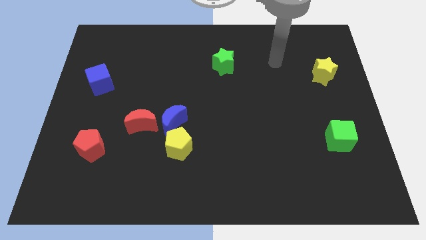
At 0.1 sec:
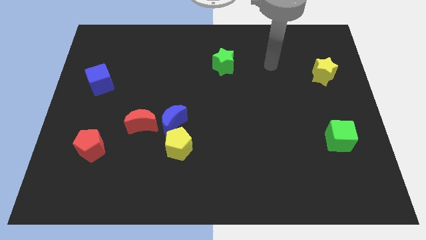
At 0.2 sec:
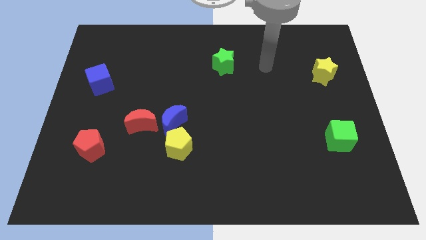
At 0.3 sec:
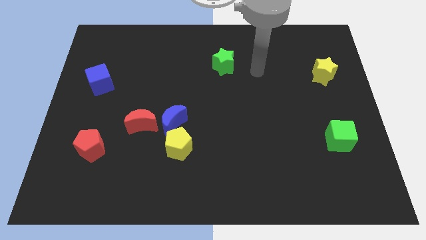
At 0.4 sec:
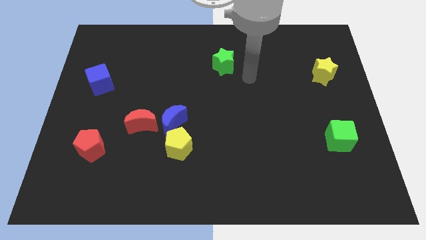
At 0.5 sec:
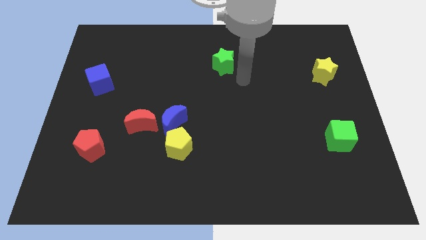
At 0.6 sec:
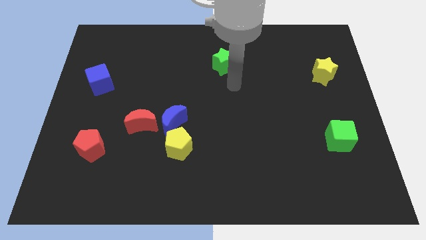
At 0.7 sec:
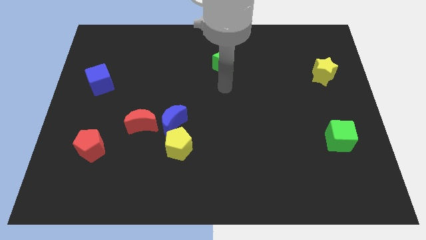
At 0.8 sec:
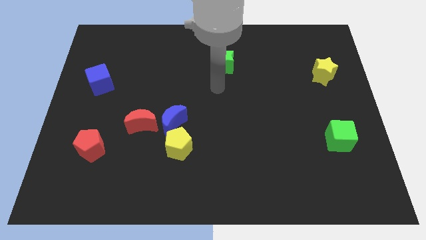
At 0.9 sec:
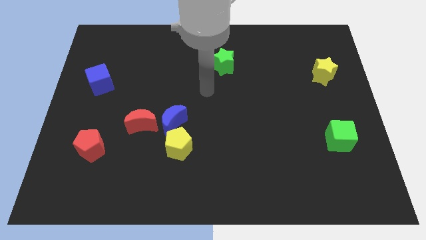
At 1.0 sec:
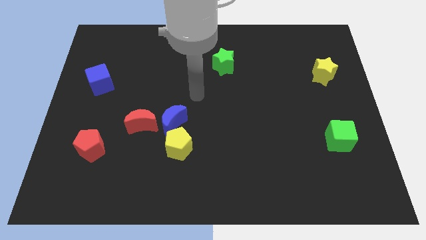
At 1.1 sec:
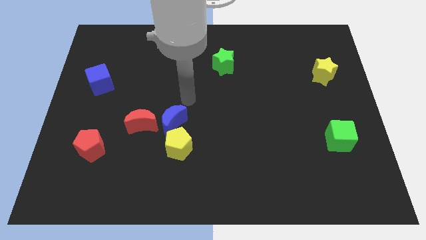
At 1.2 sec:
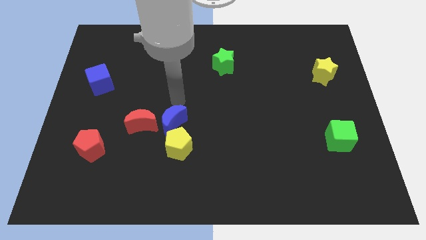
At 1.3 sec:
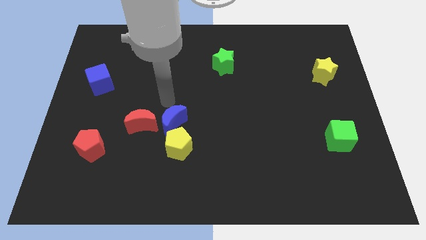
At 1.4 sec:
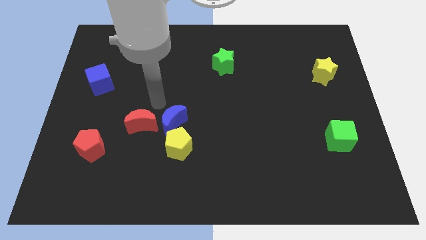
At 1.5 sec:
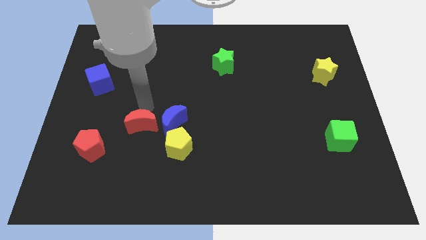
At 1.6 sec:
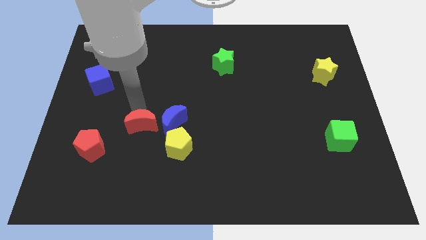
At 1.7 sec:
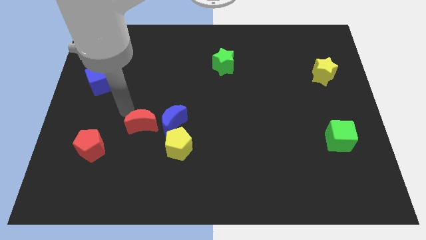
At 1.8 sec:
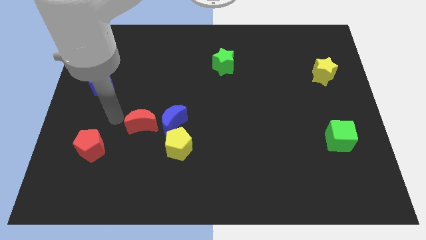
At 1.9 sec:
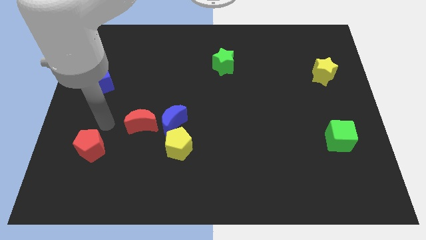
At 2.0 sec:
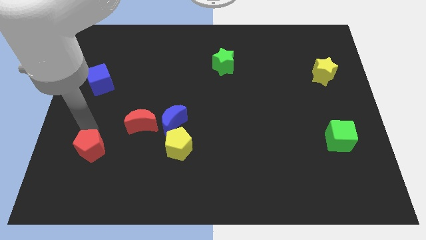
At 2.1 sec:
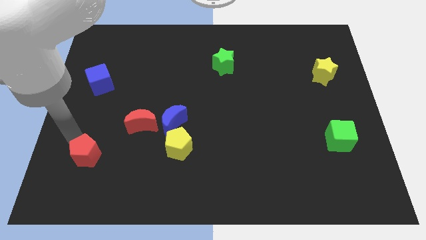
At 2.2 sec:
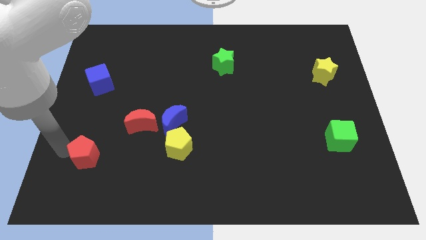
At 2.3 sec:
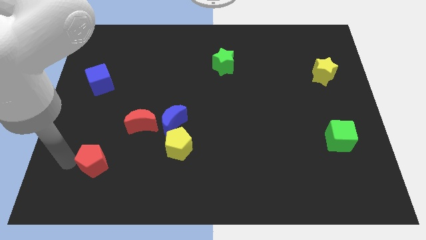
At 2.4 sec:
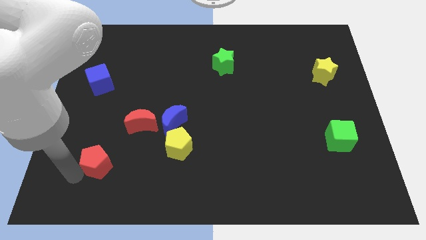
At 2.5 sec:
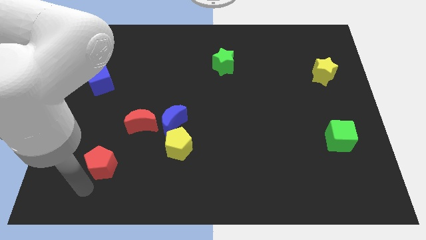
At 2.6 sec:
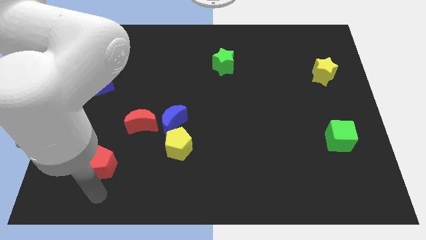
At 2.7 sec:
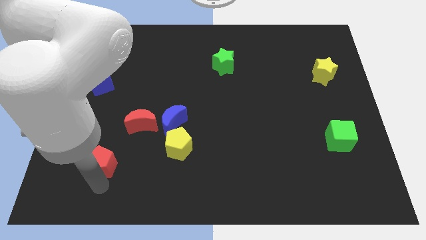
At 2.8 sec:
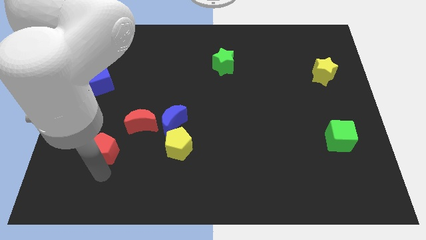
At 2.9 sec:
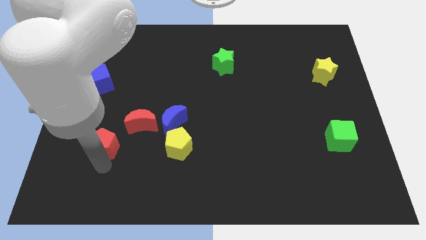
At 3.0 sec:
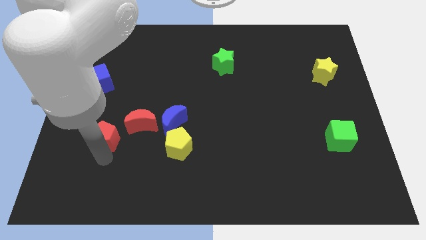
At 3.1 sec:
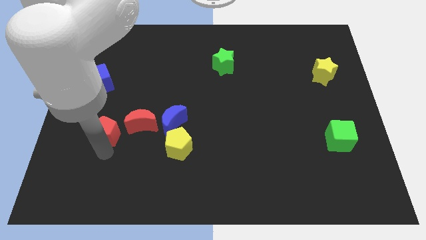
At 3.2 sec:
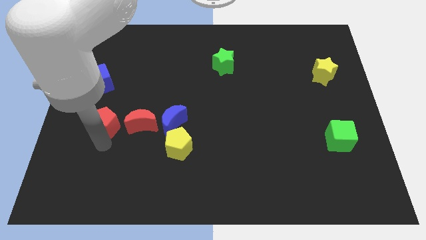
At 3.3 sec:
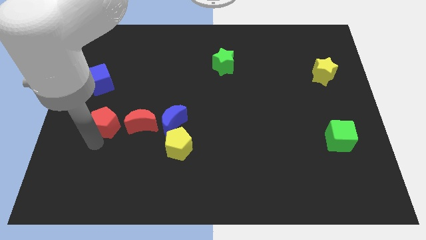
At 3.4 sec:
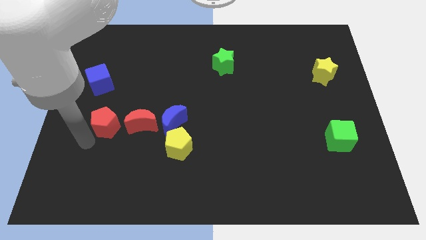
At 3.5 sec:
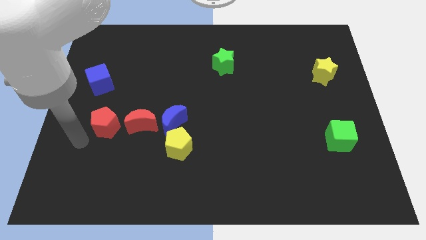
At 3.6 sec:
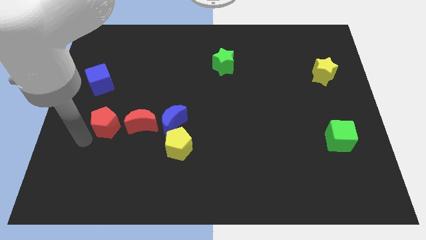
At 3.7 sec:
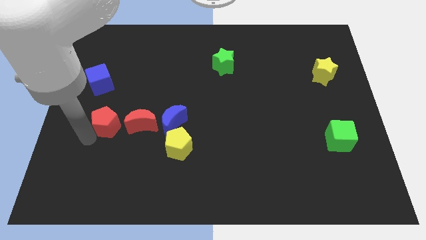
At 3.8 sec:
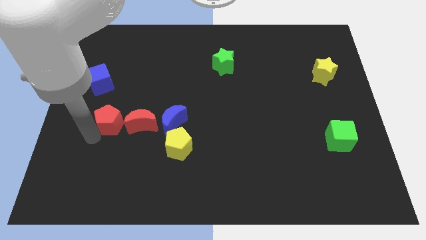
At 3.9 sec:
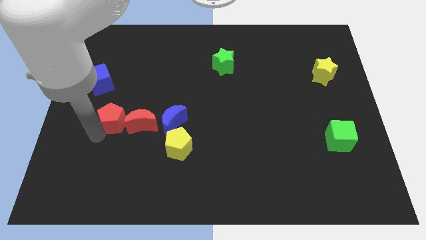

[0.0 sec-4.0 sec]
slightly push the red pentagon up and to the right

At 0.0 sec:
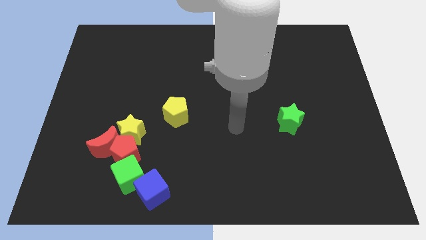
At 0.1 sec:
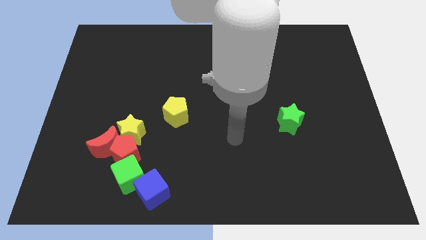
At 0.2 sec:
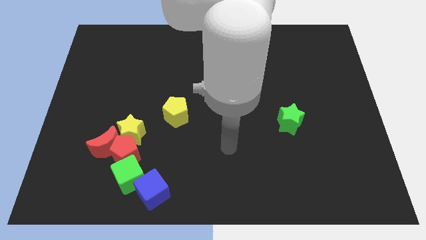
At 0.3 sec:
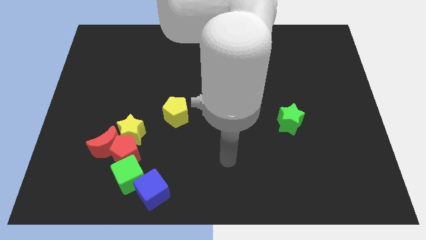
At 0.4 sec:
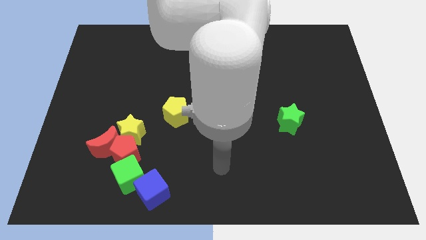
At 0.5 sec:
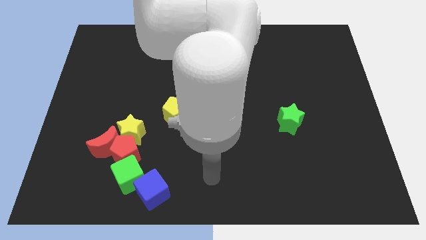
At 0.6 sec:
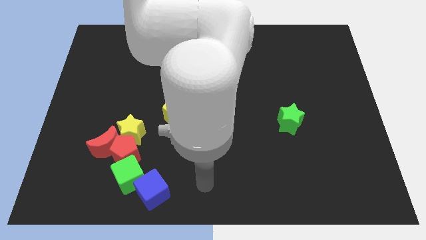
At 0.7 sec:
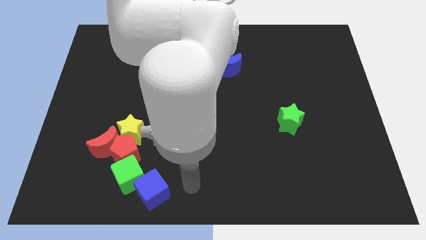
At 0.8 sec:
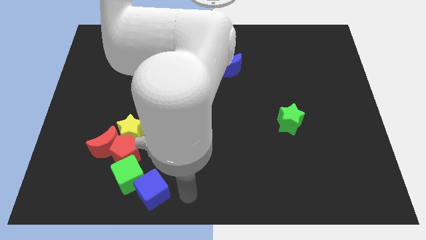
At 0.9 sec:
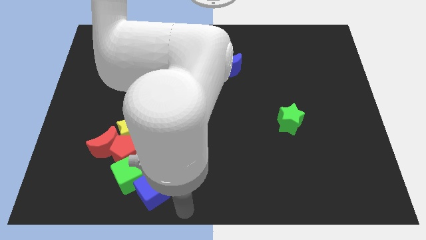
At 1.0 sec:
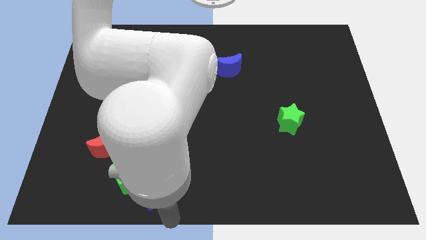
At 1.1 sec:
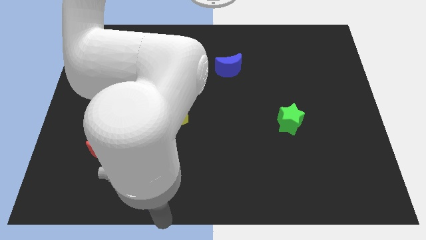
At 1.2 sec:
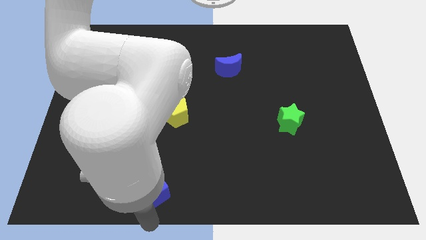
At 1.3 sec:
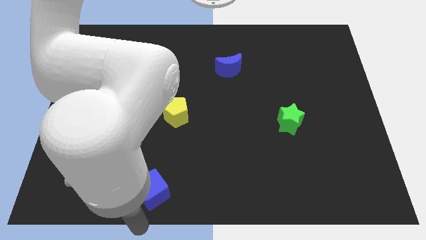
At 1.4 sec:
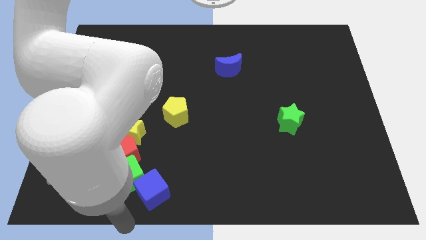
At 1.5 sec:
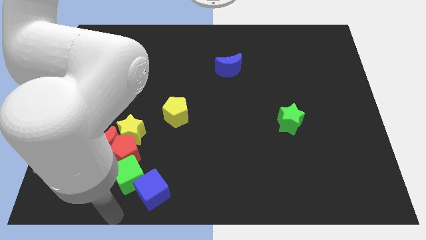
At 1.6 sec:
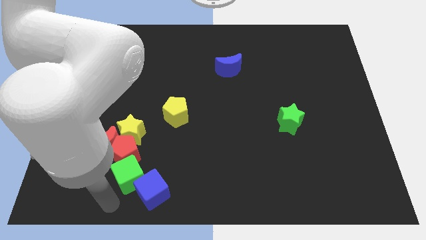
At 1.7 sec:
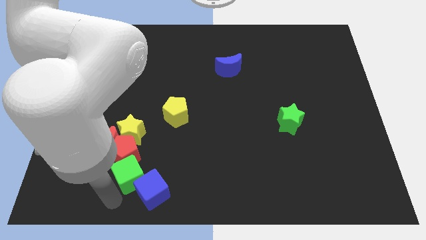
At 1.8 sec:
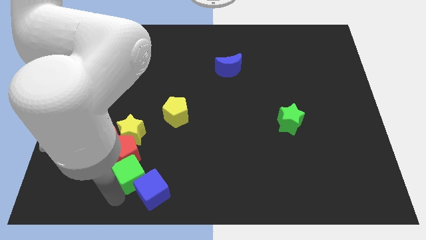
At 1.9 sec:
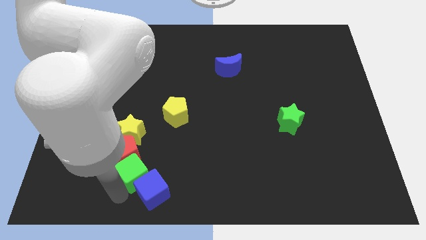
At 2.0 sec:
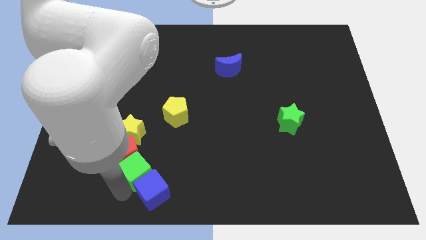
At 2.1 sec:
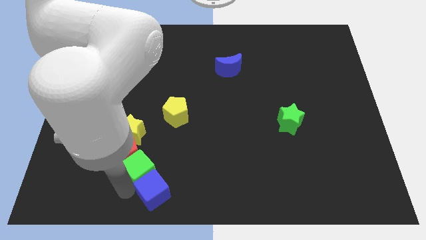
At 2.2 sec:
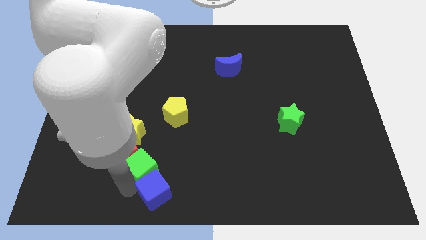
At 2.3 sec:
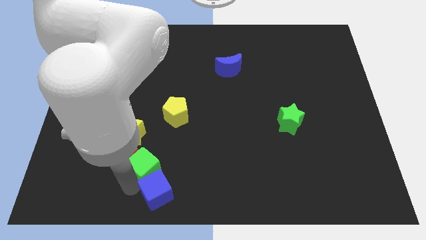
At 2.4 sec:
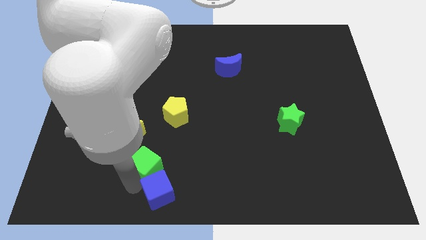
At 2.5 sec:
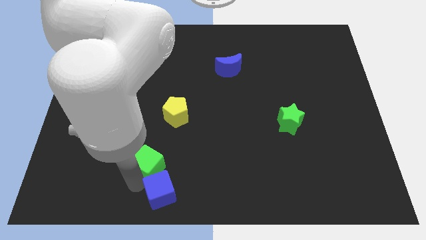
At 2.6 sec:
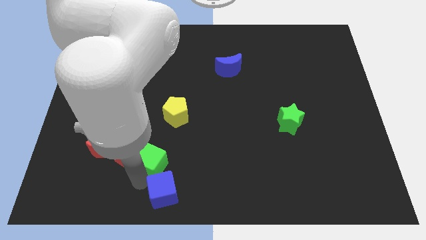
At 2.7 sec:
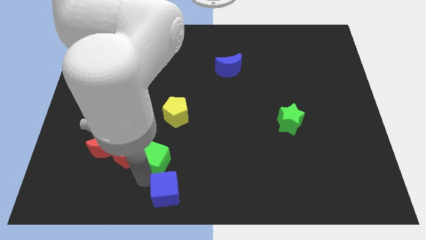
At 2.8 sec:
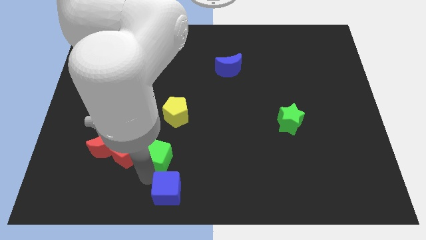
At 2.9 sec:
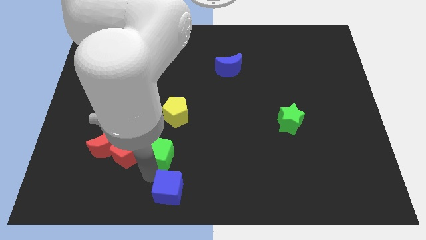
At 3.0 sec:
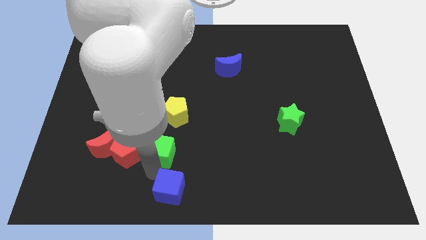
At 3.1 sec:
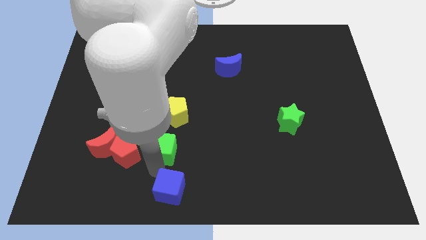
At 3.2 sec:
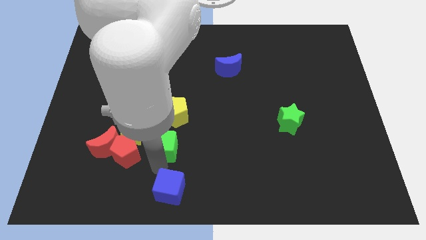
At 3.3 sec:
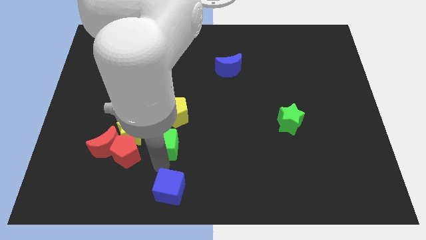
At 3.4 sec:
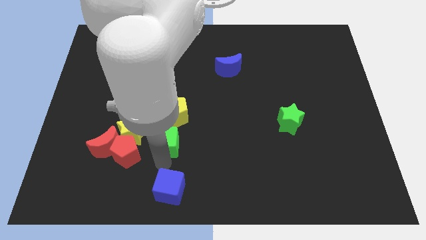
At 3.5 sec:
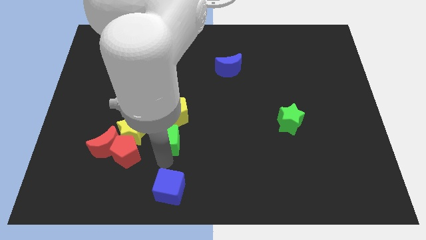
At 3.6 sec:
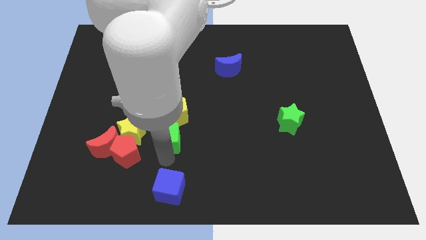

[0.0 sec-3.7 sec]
push the green cube somewhat up

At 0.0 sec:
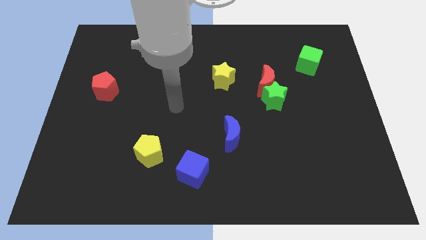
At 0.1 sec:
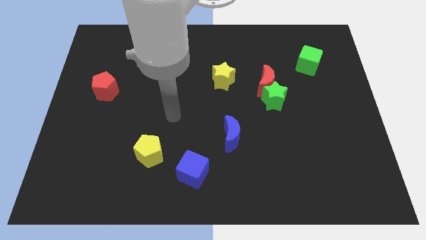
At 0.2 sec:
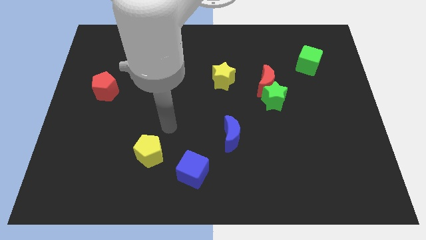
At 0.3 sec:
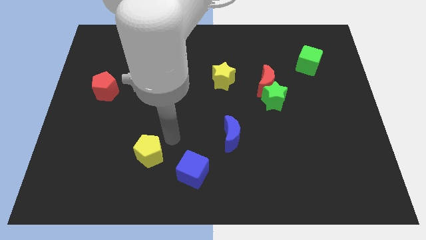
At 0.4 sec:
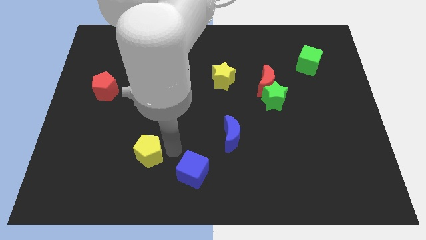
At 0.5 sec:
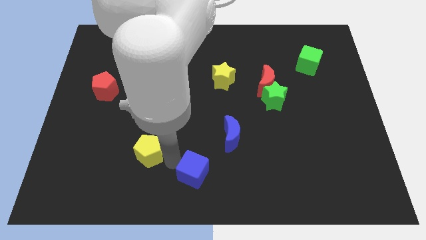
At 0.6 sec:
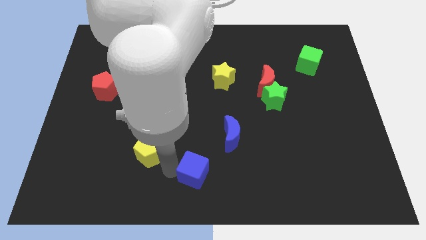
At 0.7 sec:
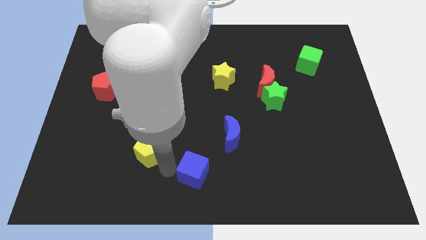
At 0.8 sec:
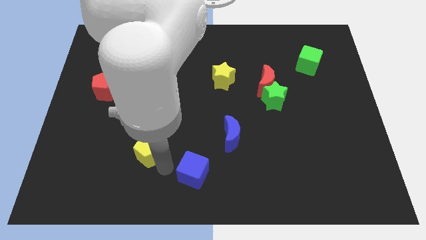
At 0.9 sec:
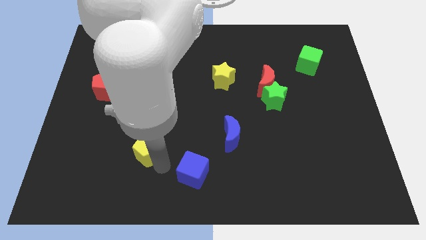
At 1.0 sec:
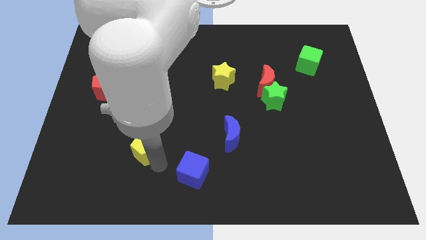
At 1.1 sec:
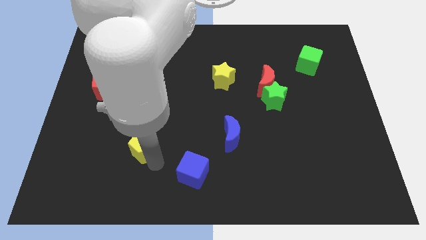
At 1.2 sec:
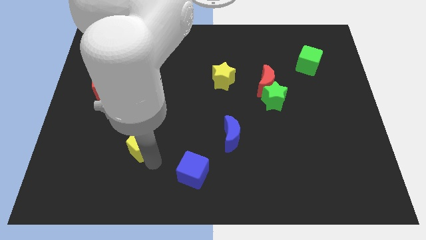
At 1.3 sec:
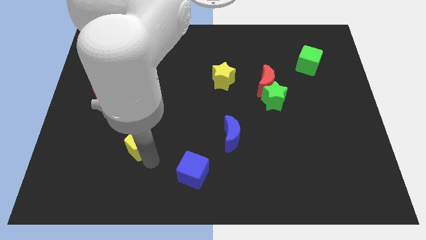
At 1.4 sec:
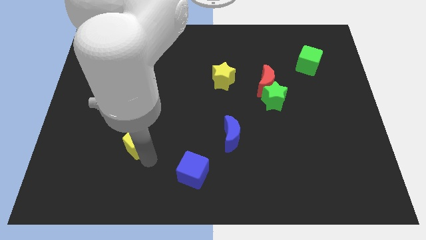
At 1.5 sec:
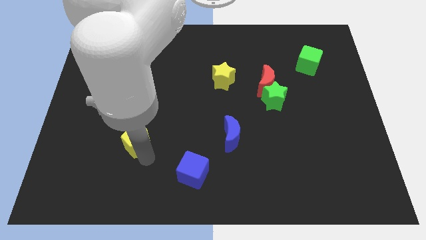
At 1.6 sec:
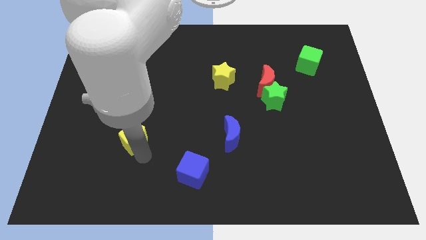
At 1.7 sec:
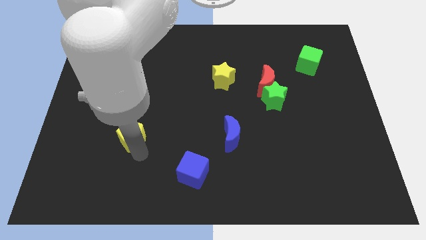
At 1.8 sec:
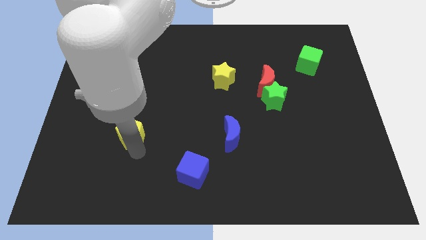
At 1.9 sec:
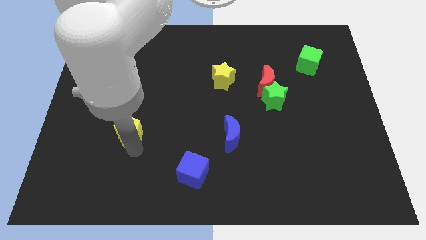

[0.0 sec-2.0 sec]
slightly push the yellow pentagon diagonally up and to the left
